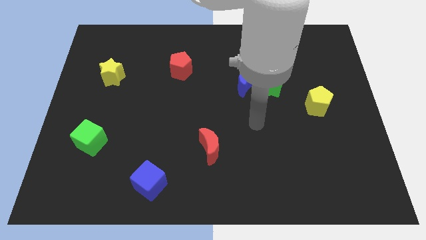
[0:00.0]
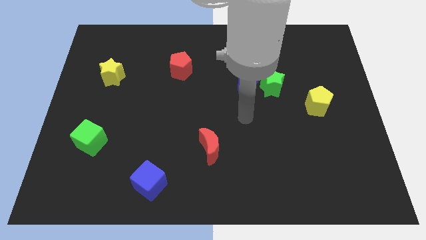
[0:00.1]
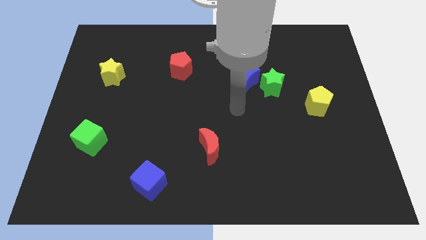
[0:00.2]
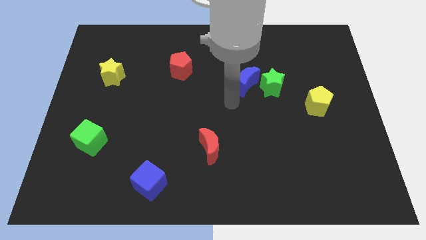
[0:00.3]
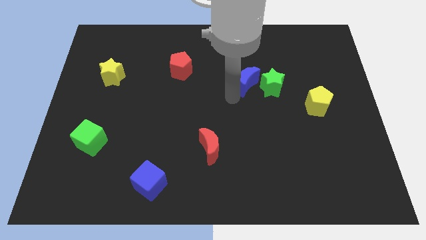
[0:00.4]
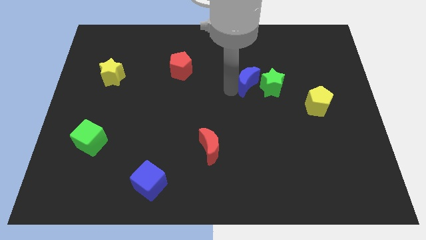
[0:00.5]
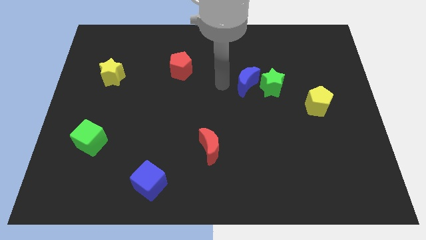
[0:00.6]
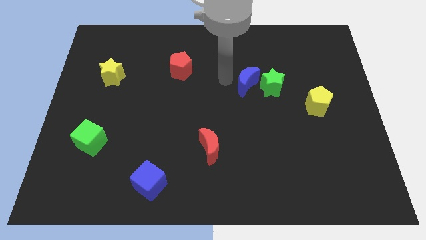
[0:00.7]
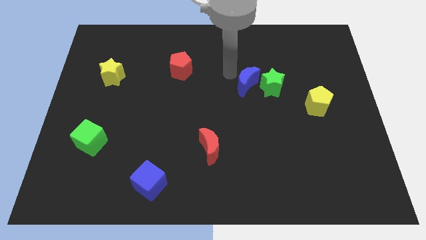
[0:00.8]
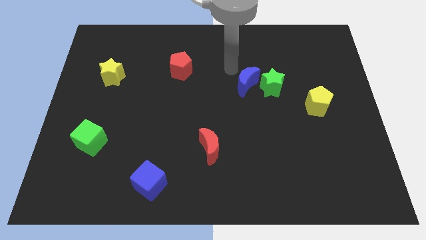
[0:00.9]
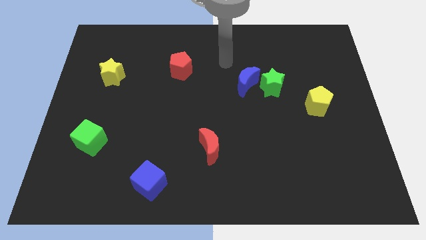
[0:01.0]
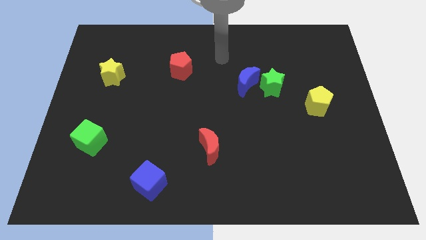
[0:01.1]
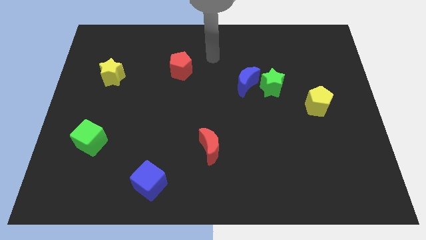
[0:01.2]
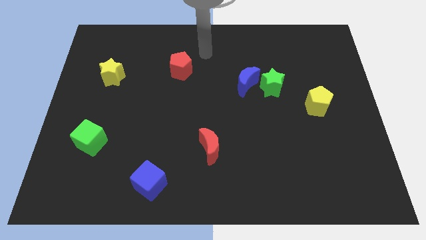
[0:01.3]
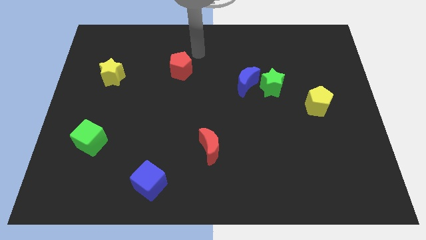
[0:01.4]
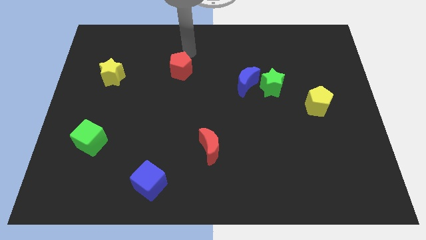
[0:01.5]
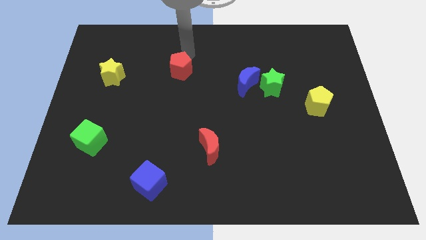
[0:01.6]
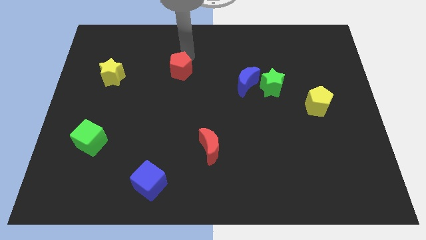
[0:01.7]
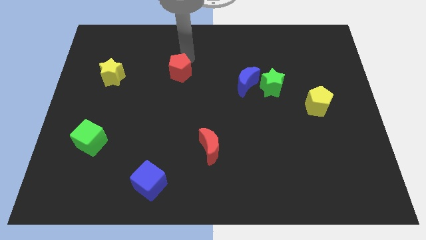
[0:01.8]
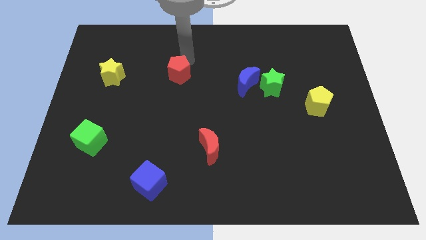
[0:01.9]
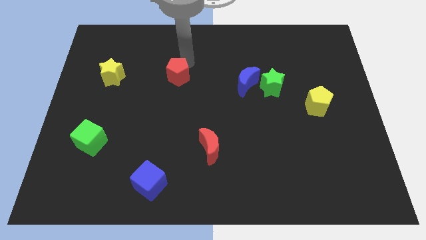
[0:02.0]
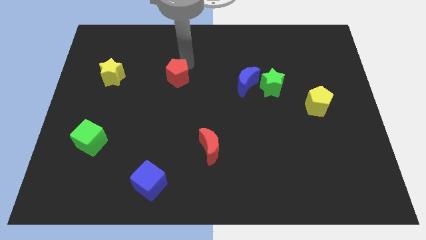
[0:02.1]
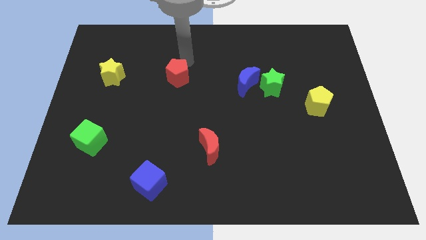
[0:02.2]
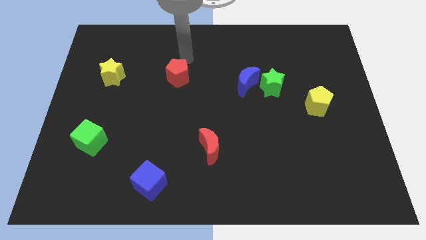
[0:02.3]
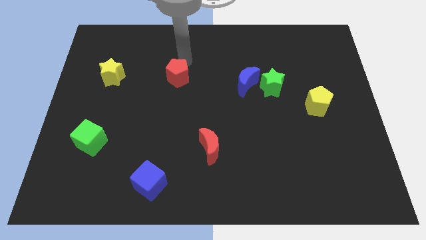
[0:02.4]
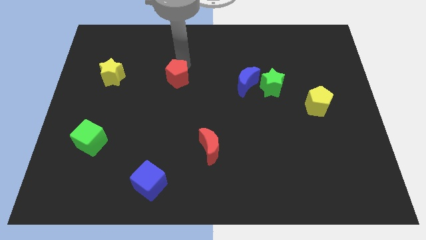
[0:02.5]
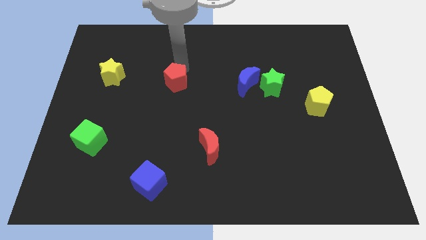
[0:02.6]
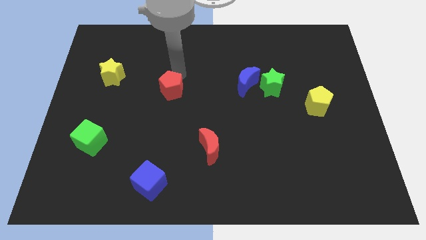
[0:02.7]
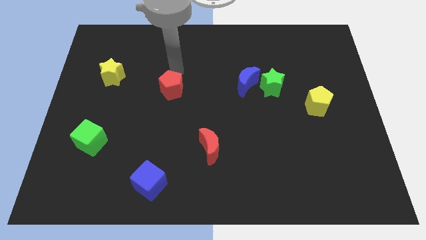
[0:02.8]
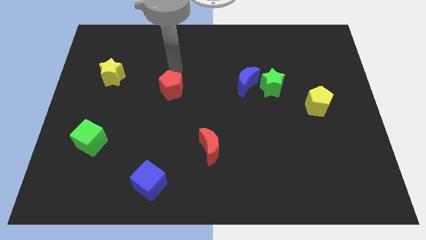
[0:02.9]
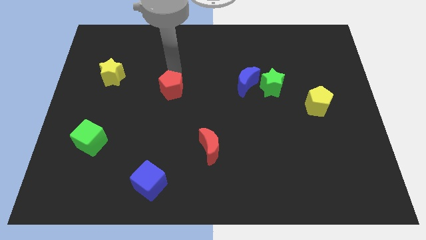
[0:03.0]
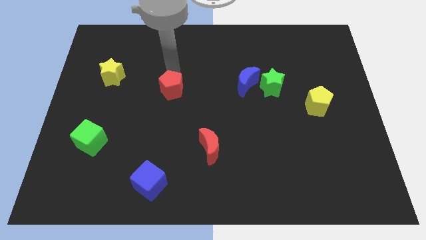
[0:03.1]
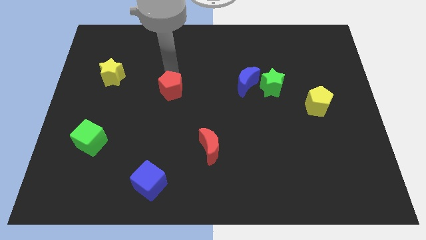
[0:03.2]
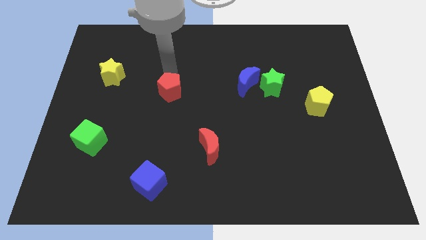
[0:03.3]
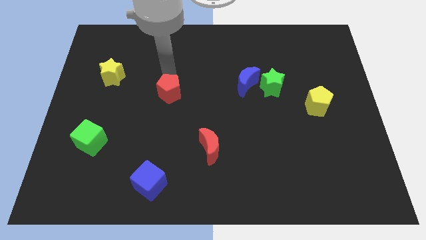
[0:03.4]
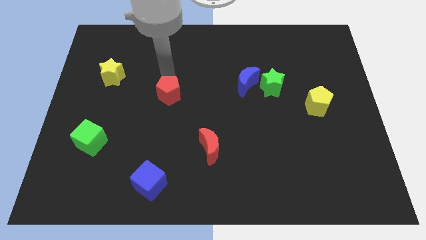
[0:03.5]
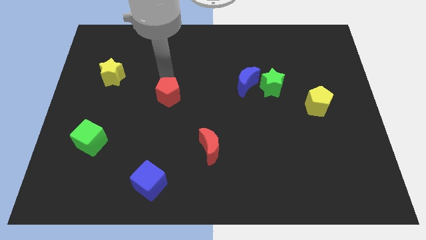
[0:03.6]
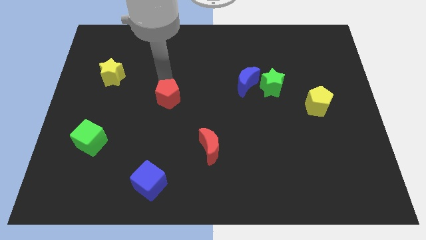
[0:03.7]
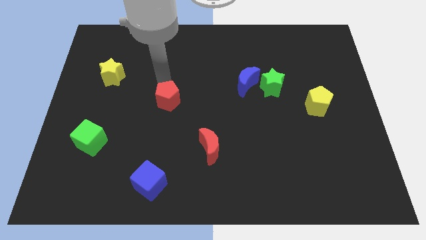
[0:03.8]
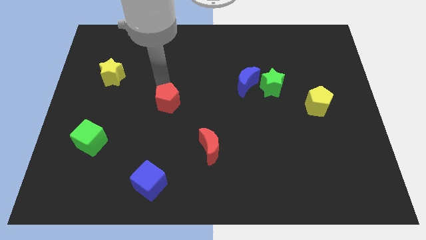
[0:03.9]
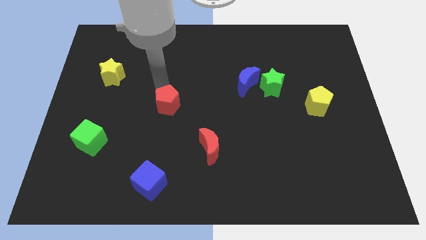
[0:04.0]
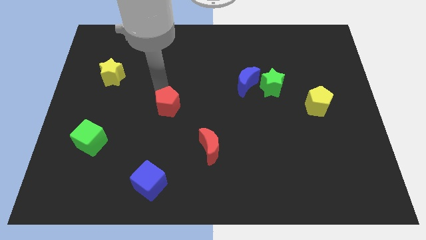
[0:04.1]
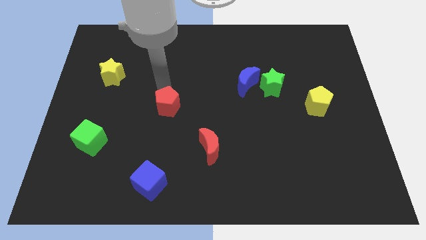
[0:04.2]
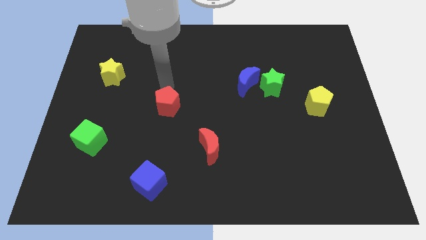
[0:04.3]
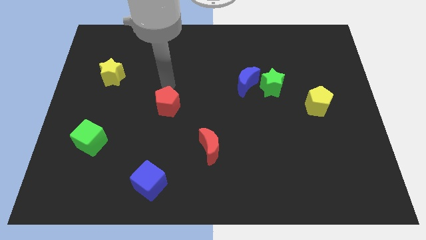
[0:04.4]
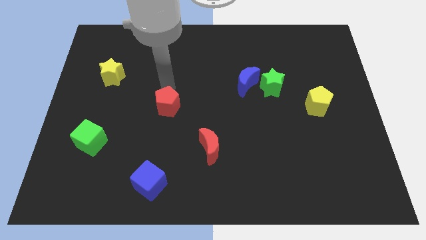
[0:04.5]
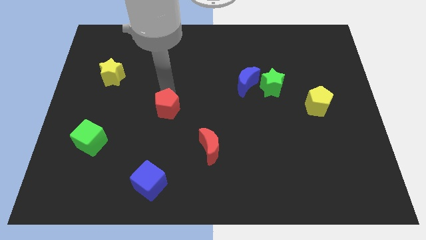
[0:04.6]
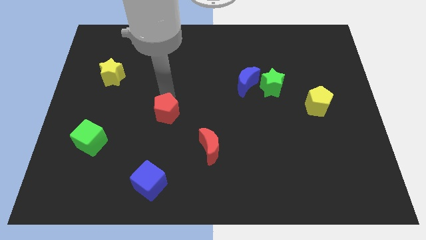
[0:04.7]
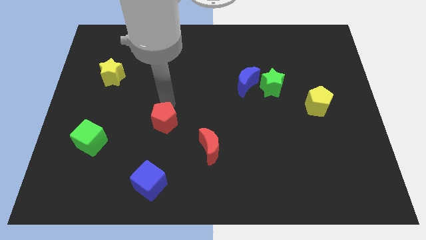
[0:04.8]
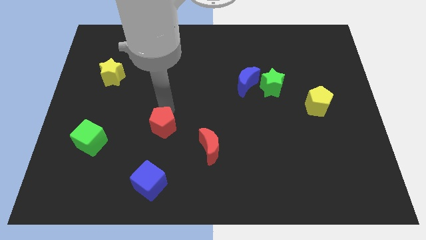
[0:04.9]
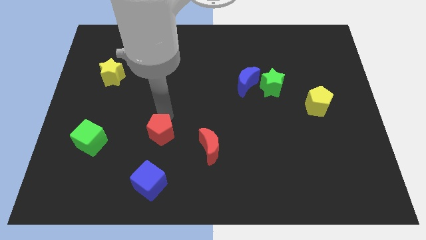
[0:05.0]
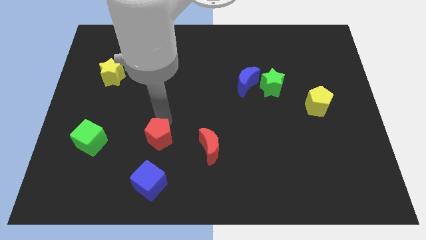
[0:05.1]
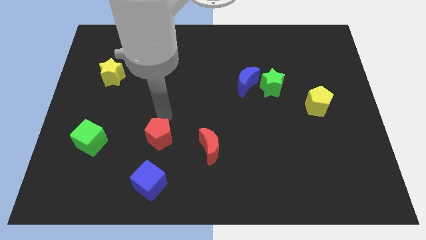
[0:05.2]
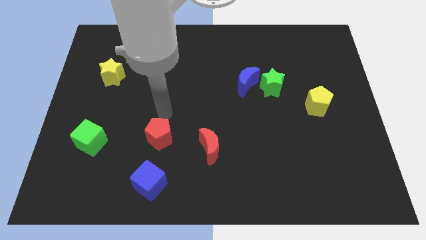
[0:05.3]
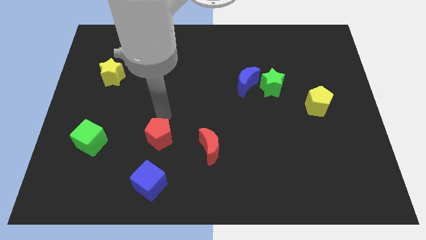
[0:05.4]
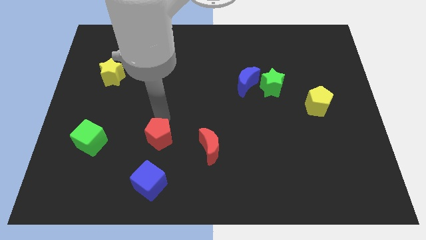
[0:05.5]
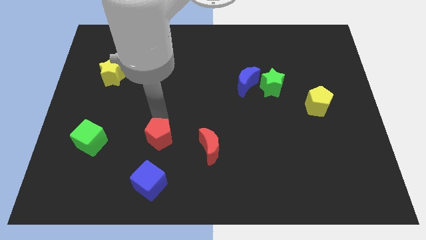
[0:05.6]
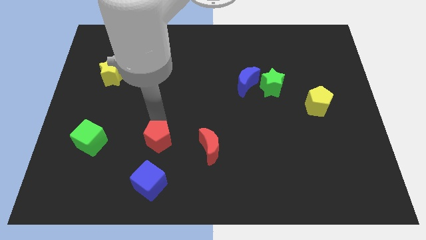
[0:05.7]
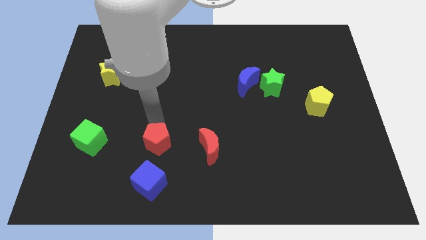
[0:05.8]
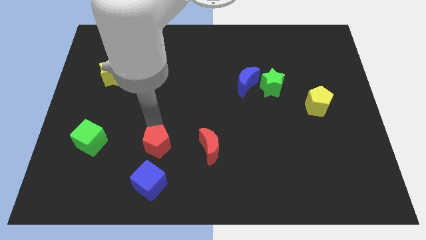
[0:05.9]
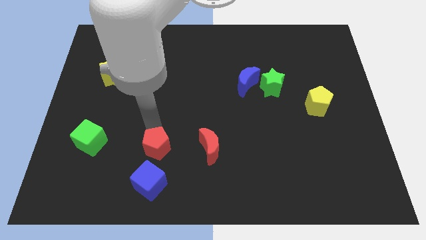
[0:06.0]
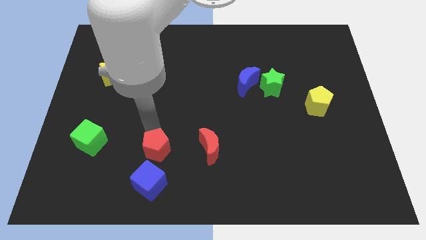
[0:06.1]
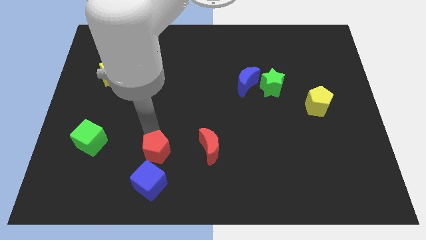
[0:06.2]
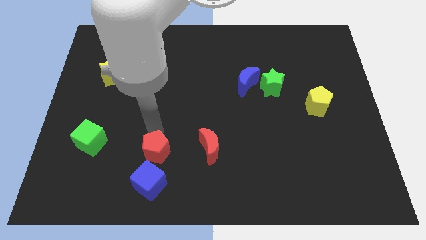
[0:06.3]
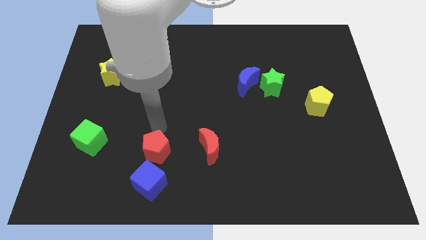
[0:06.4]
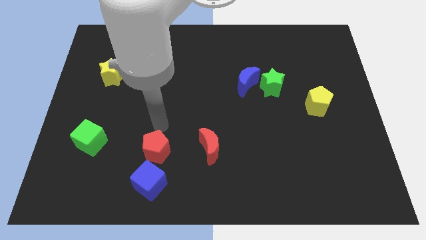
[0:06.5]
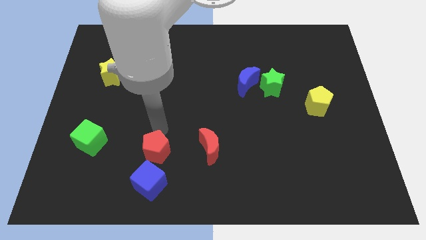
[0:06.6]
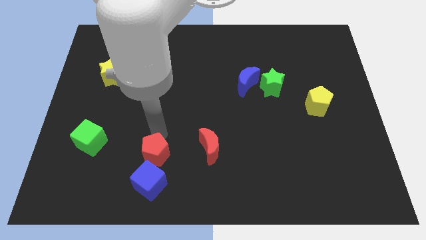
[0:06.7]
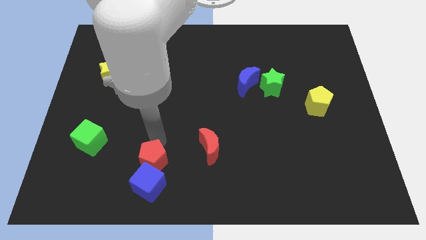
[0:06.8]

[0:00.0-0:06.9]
put the red pentagon close to the blue cube

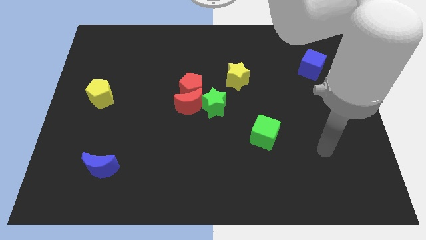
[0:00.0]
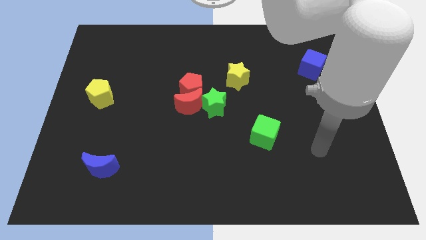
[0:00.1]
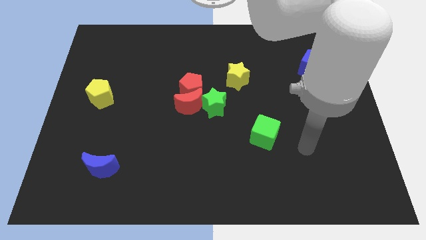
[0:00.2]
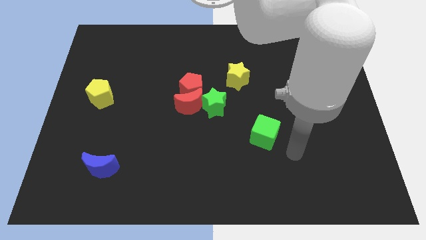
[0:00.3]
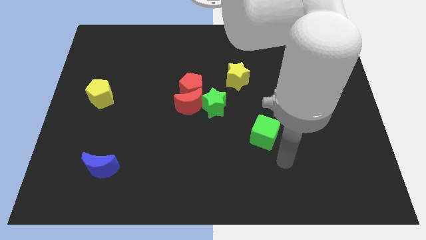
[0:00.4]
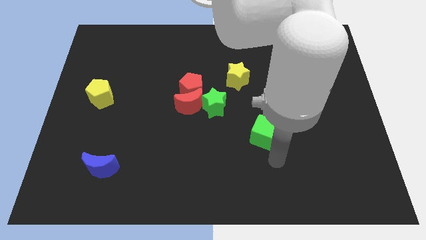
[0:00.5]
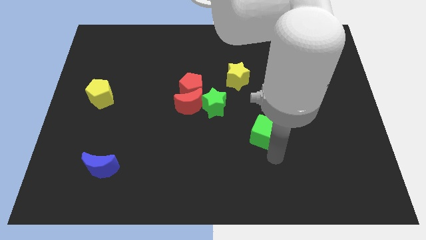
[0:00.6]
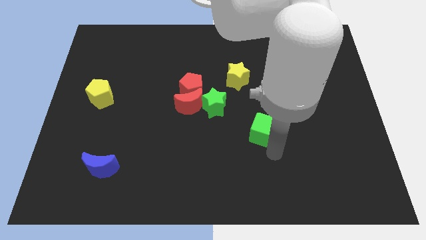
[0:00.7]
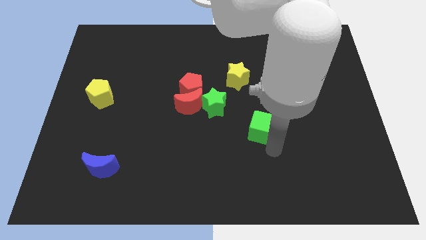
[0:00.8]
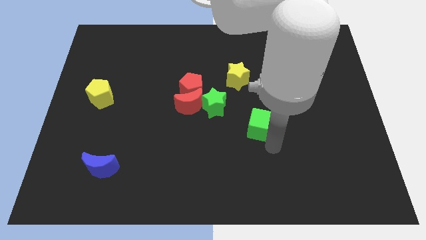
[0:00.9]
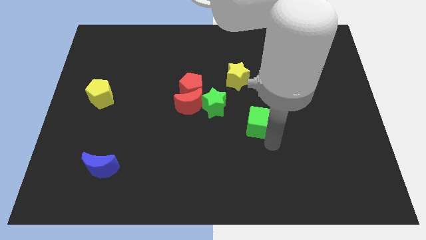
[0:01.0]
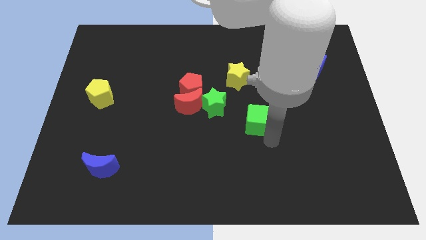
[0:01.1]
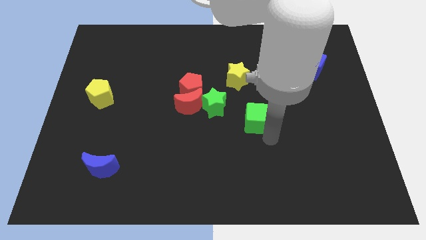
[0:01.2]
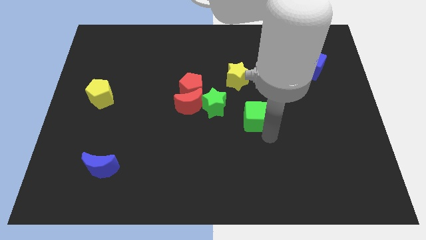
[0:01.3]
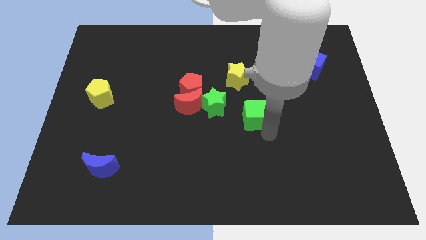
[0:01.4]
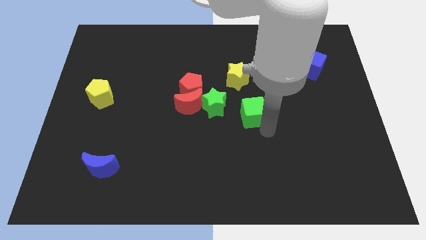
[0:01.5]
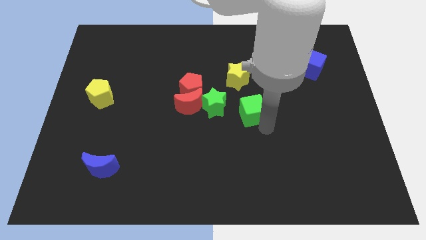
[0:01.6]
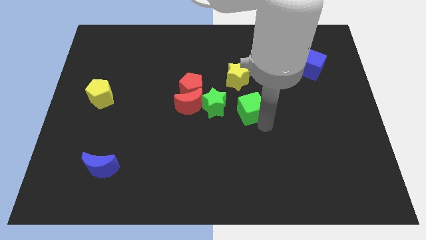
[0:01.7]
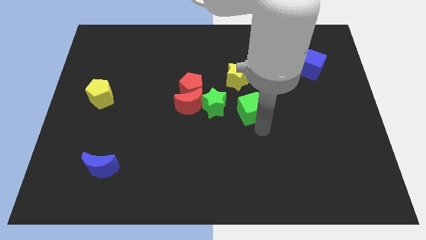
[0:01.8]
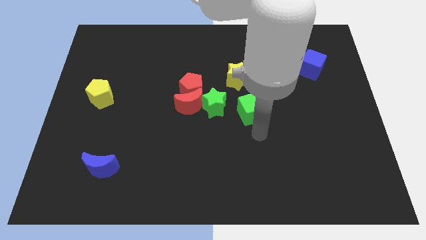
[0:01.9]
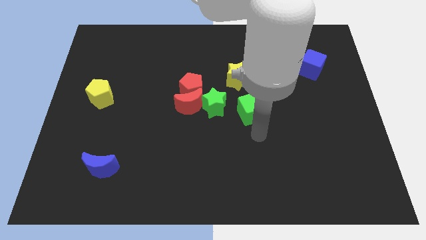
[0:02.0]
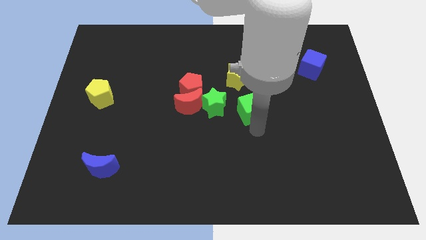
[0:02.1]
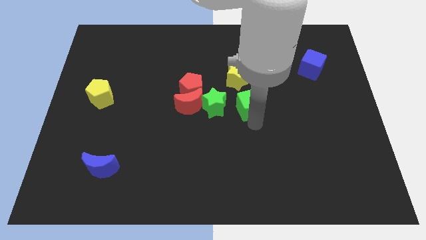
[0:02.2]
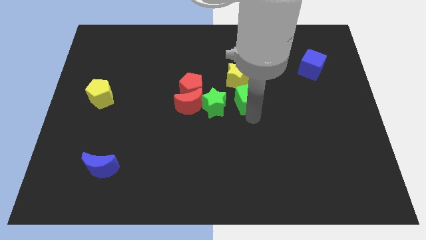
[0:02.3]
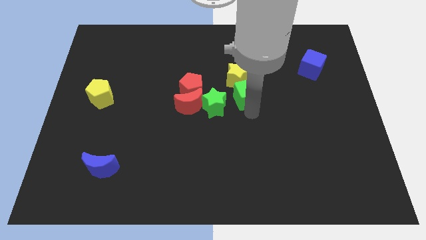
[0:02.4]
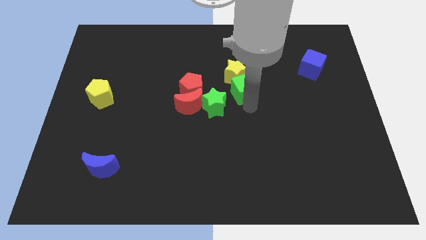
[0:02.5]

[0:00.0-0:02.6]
move the green cube towards the yellow star
